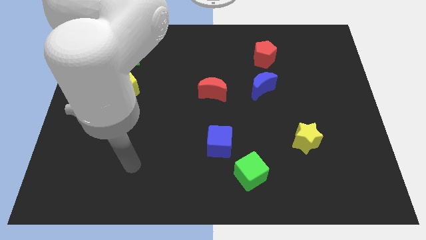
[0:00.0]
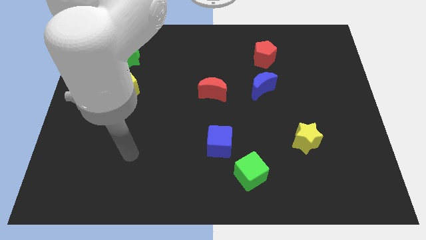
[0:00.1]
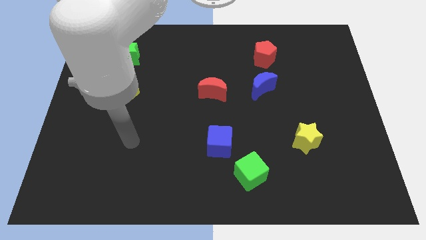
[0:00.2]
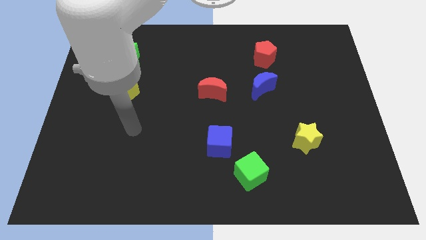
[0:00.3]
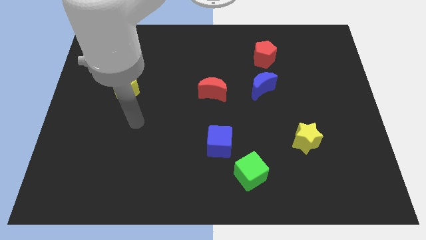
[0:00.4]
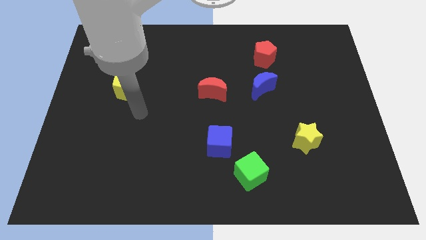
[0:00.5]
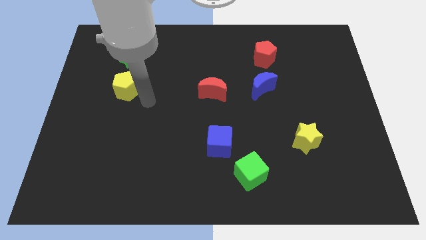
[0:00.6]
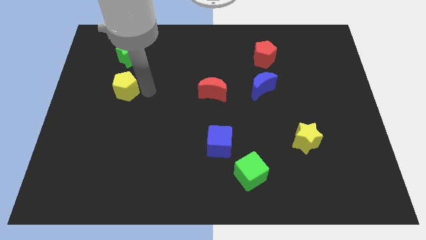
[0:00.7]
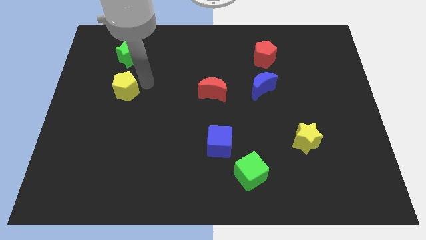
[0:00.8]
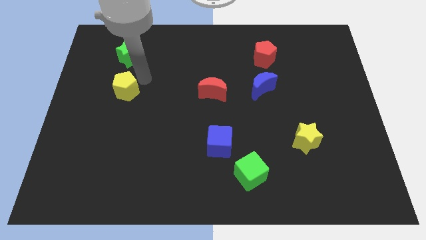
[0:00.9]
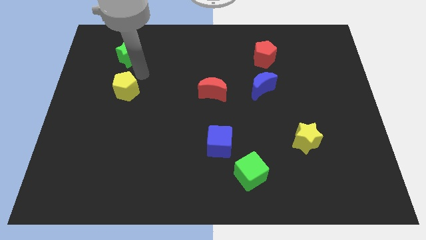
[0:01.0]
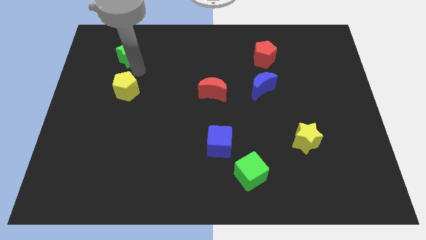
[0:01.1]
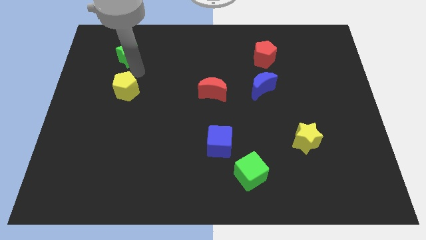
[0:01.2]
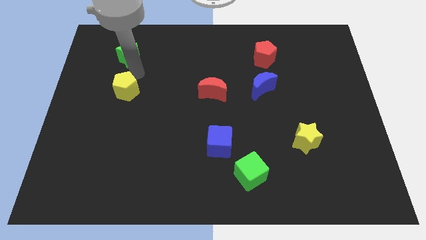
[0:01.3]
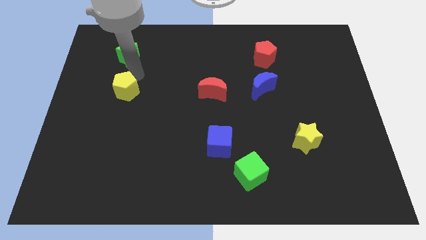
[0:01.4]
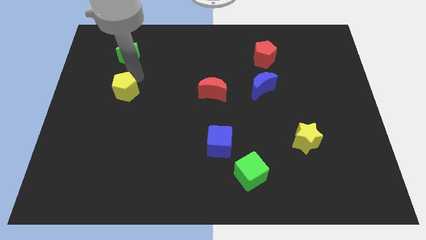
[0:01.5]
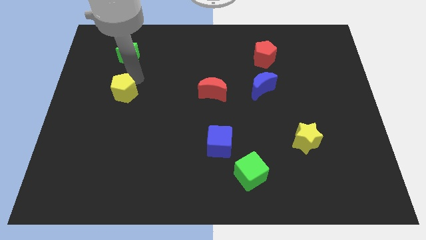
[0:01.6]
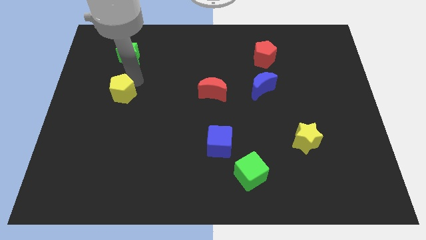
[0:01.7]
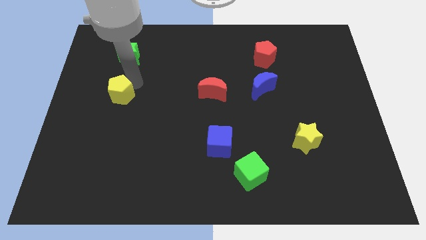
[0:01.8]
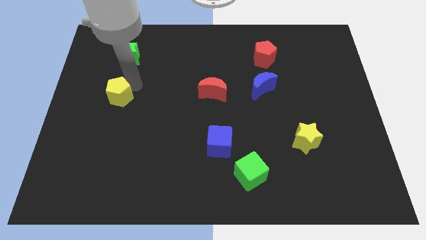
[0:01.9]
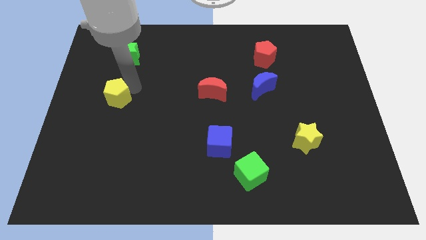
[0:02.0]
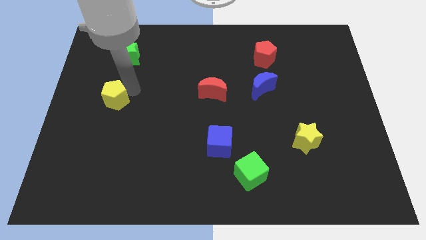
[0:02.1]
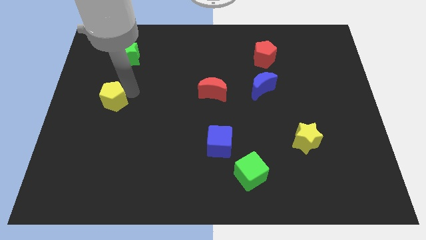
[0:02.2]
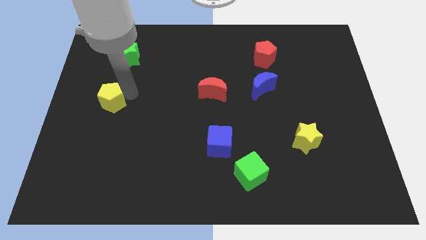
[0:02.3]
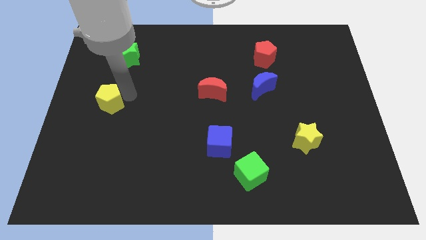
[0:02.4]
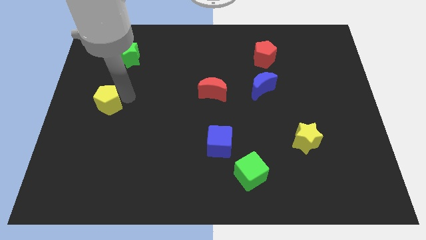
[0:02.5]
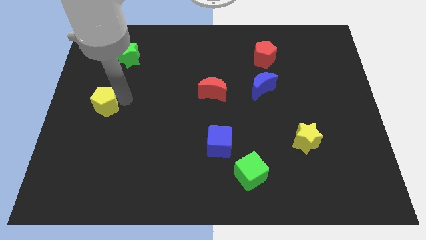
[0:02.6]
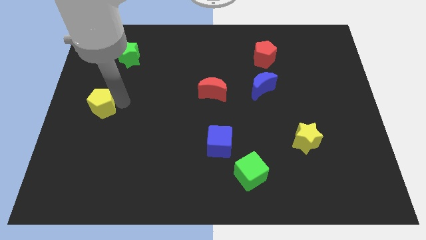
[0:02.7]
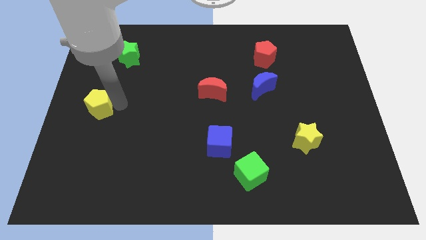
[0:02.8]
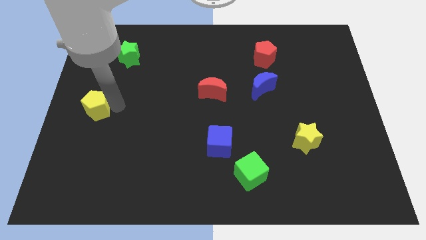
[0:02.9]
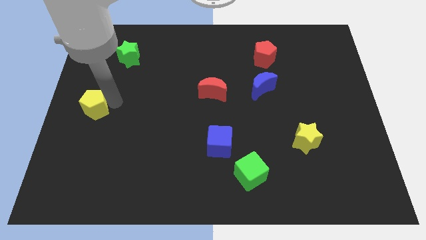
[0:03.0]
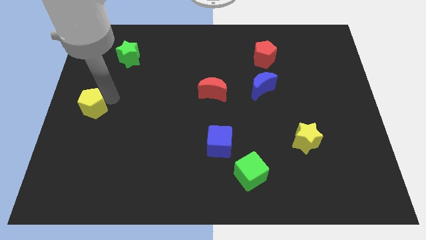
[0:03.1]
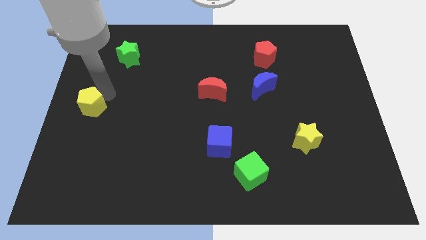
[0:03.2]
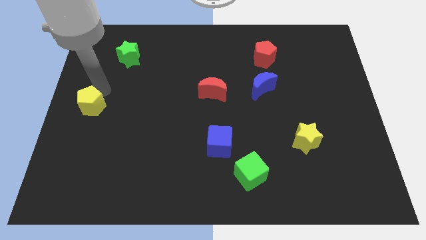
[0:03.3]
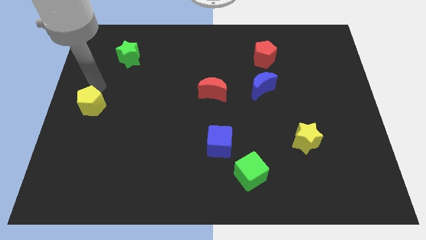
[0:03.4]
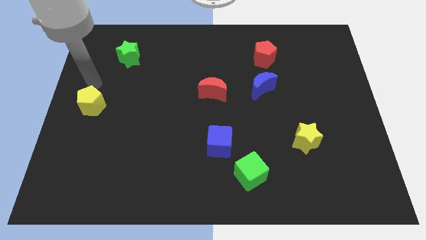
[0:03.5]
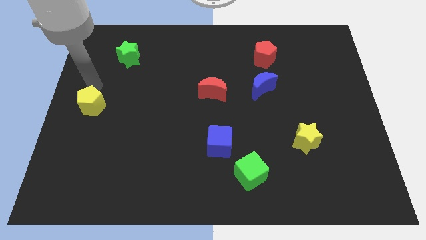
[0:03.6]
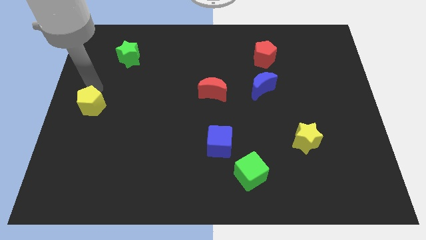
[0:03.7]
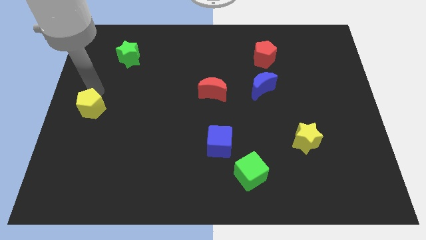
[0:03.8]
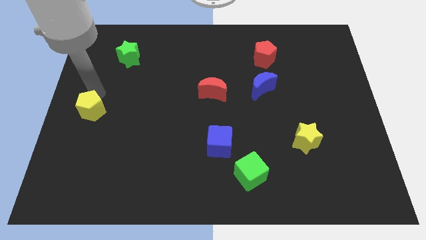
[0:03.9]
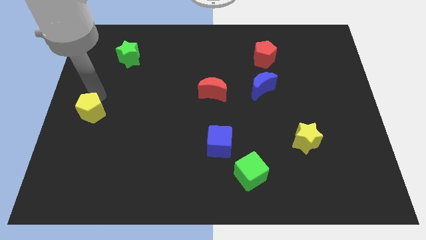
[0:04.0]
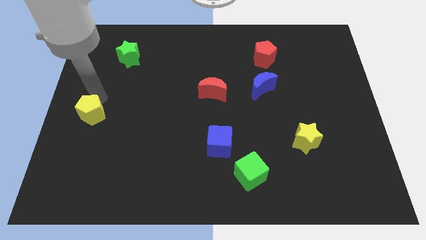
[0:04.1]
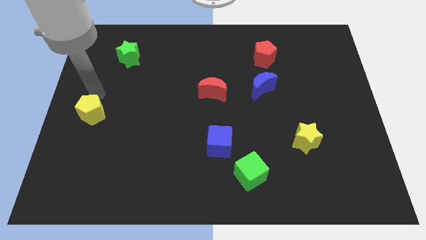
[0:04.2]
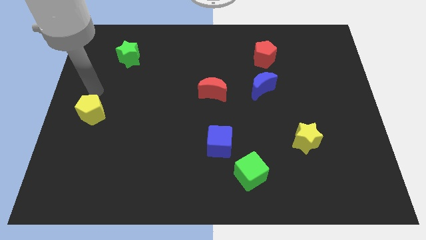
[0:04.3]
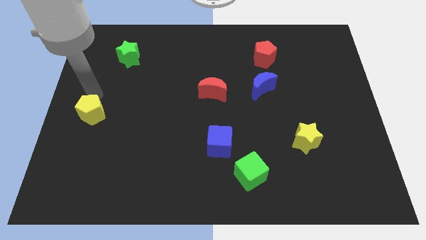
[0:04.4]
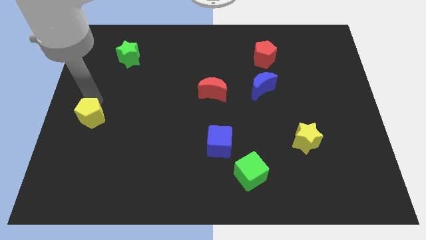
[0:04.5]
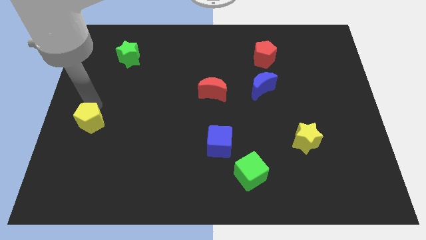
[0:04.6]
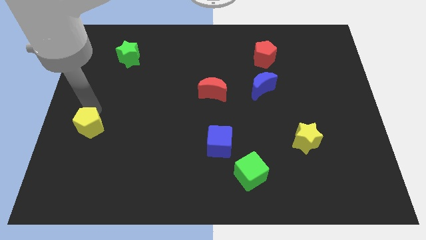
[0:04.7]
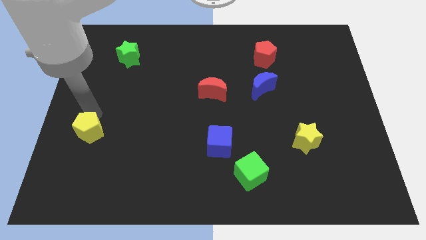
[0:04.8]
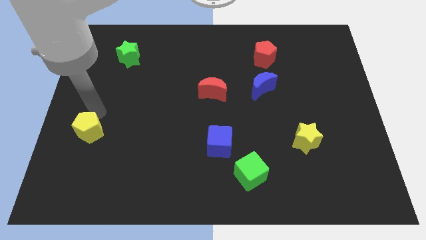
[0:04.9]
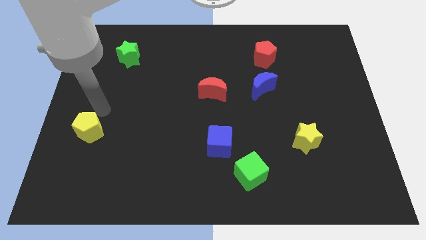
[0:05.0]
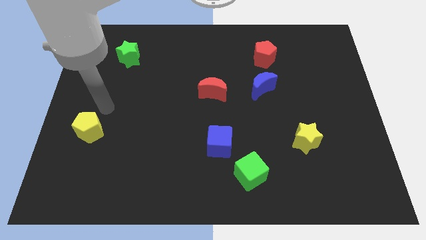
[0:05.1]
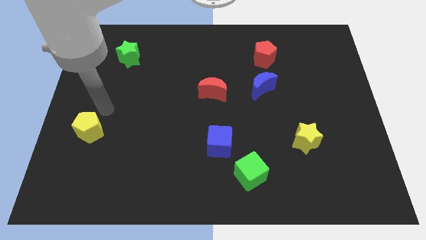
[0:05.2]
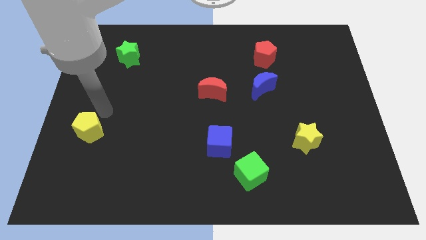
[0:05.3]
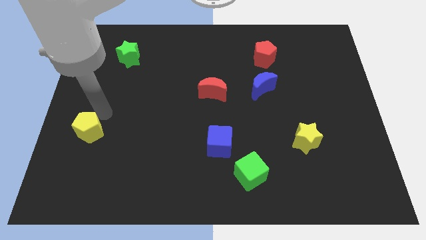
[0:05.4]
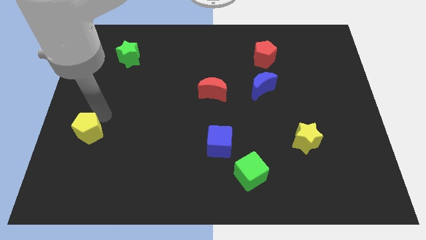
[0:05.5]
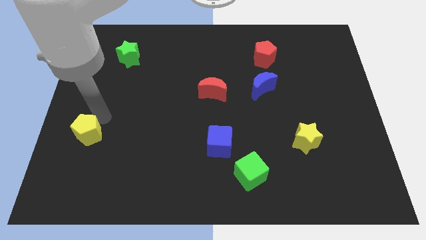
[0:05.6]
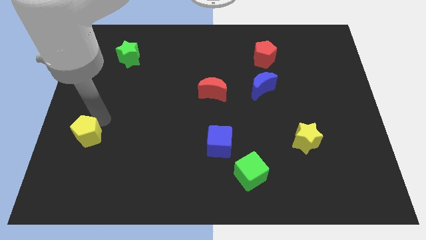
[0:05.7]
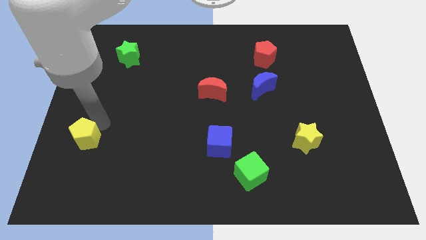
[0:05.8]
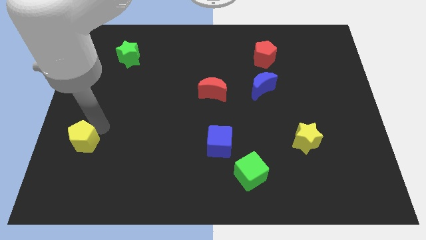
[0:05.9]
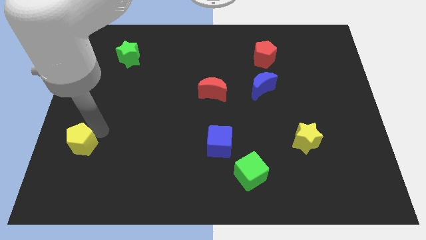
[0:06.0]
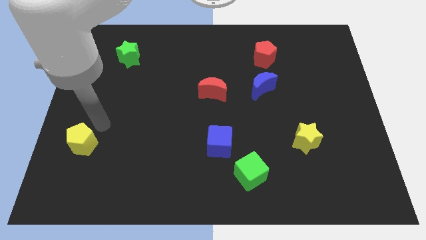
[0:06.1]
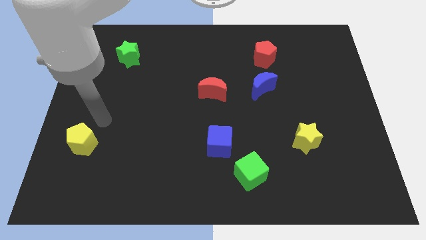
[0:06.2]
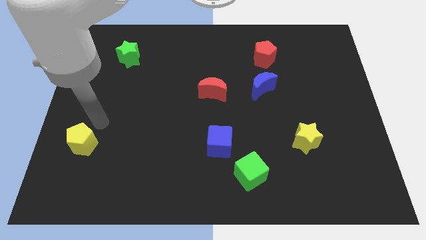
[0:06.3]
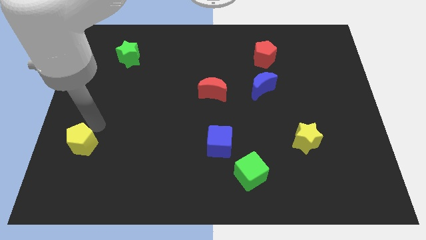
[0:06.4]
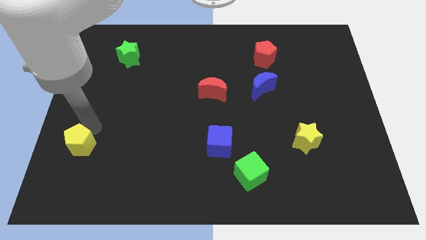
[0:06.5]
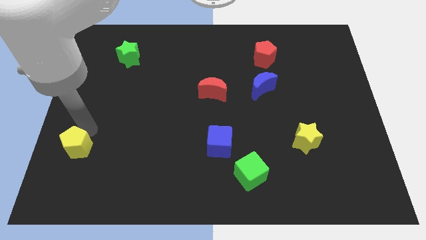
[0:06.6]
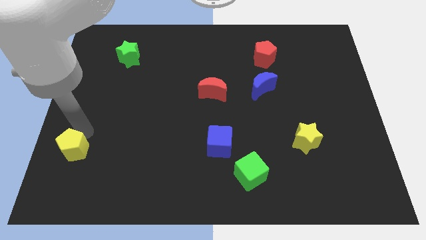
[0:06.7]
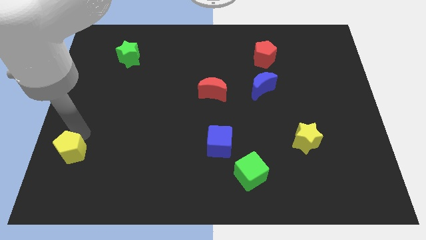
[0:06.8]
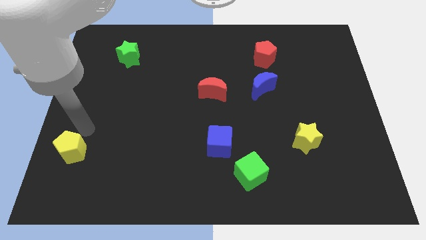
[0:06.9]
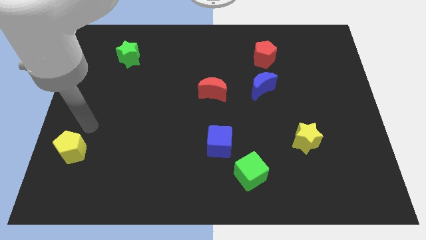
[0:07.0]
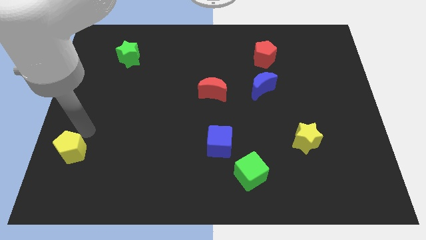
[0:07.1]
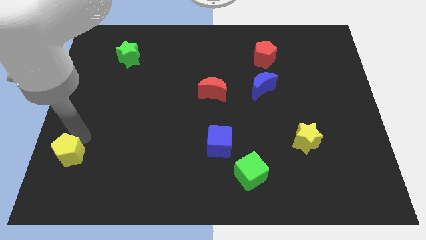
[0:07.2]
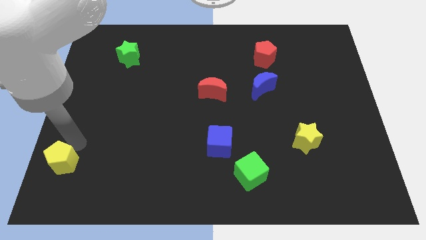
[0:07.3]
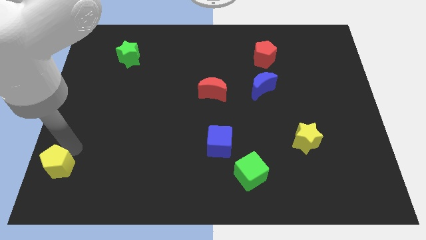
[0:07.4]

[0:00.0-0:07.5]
put the yellow pentagon to the bottom left of the board
